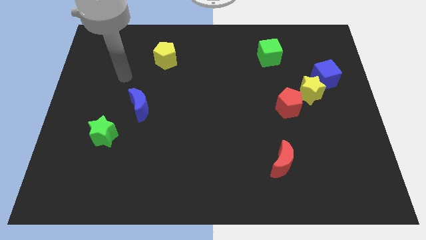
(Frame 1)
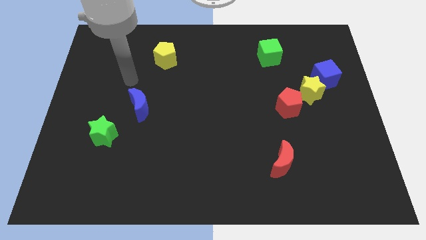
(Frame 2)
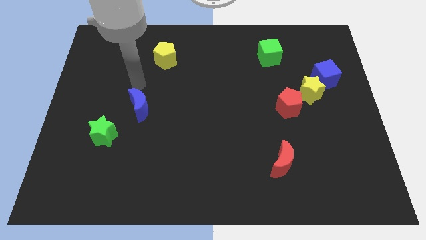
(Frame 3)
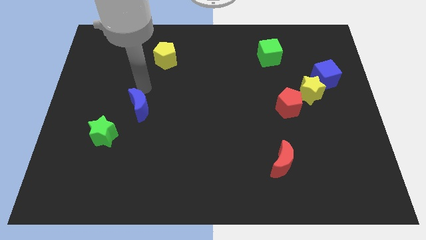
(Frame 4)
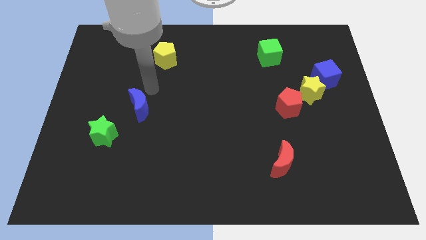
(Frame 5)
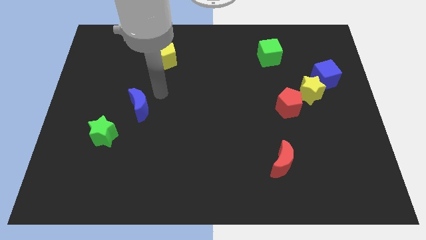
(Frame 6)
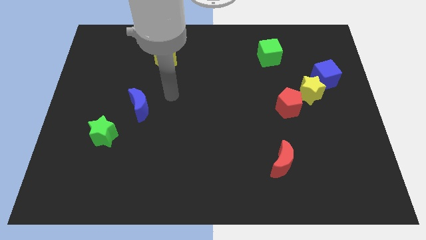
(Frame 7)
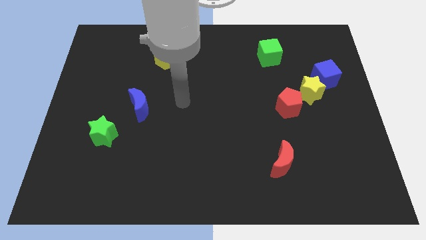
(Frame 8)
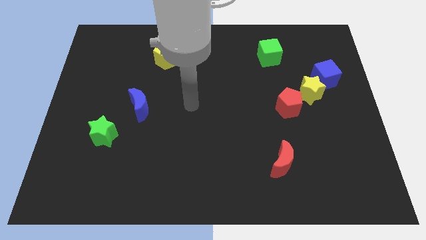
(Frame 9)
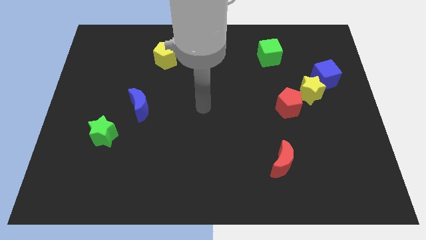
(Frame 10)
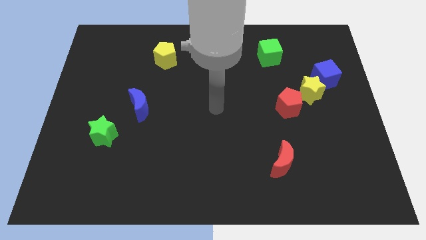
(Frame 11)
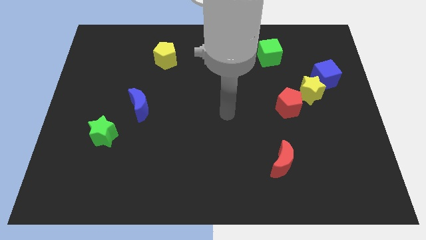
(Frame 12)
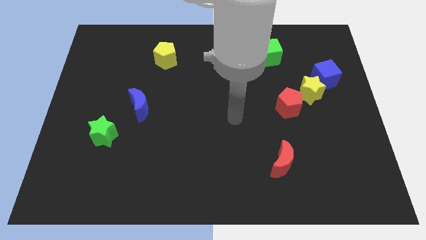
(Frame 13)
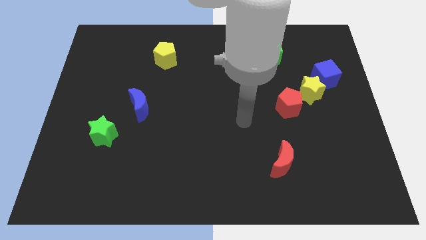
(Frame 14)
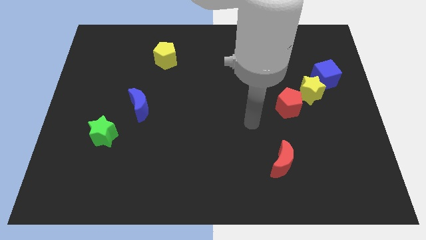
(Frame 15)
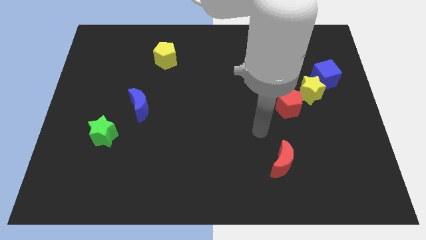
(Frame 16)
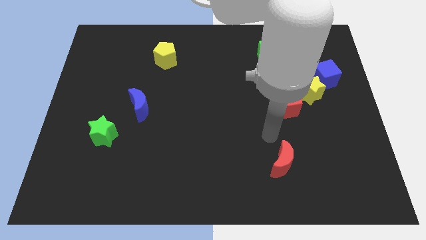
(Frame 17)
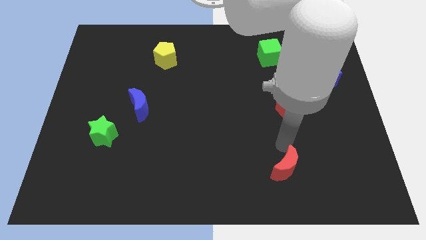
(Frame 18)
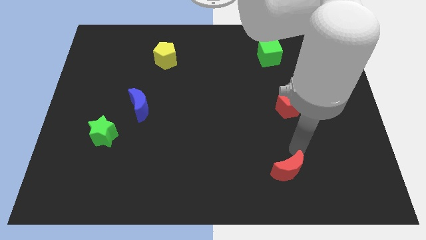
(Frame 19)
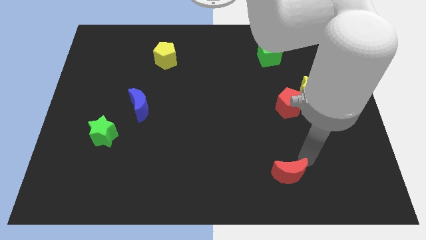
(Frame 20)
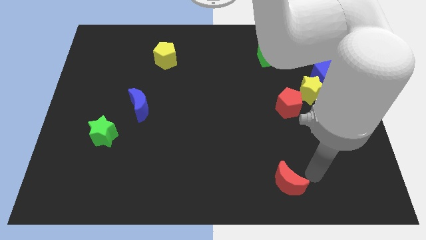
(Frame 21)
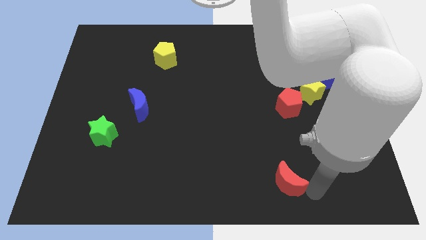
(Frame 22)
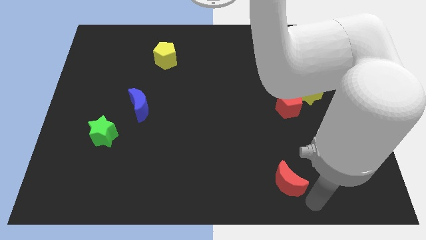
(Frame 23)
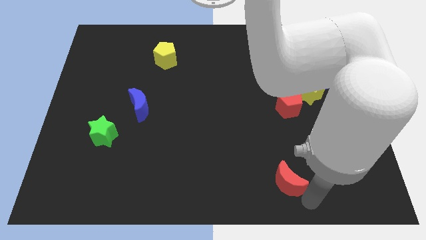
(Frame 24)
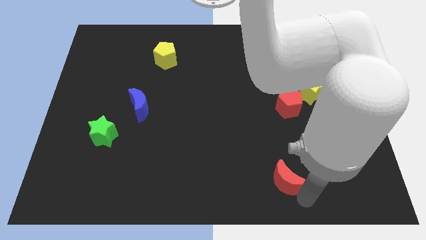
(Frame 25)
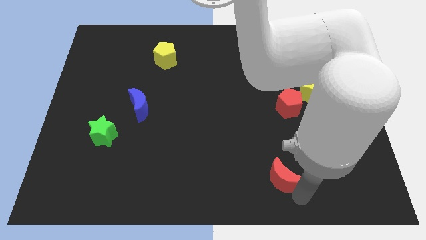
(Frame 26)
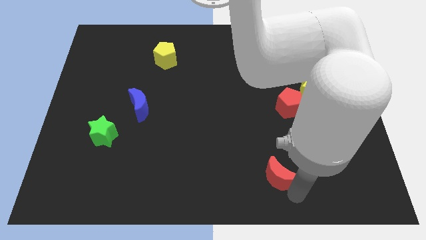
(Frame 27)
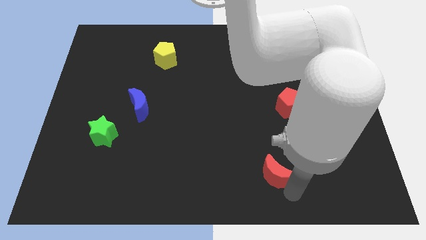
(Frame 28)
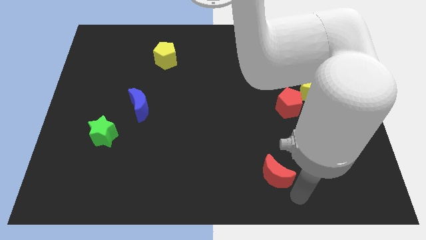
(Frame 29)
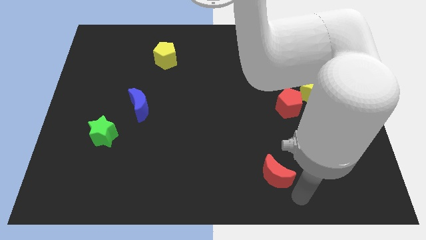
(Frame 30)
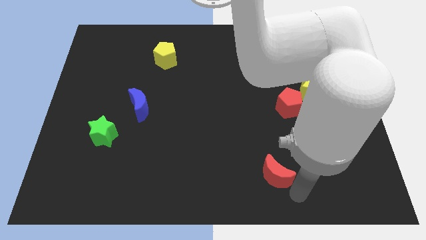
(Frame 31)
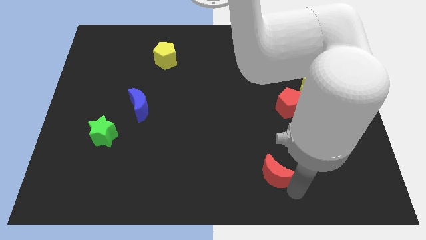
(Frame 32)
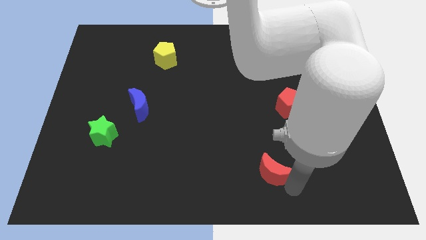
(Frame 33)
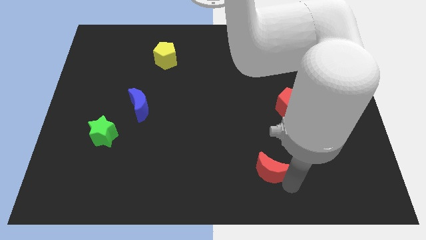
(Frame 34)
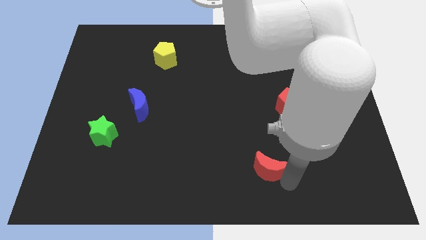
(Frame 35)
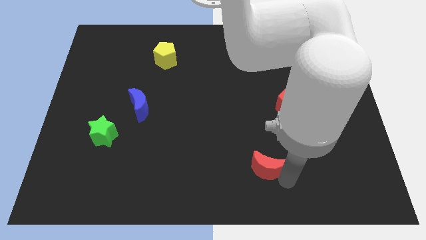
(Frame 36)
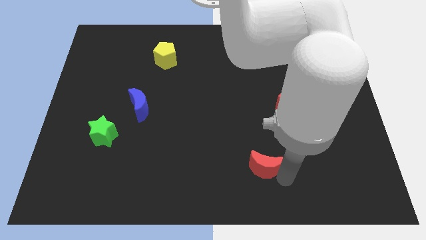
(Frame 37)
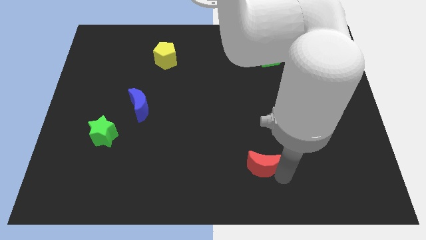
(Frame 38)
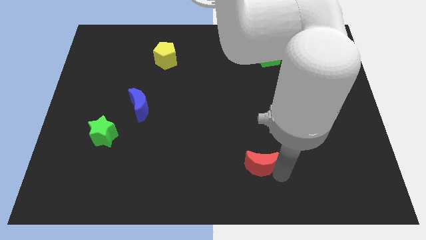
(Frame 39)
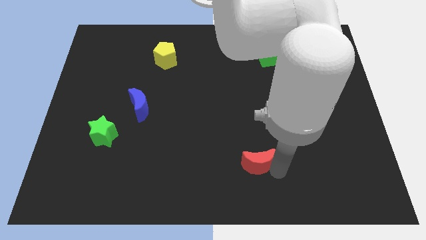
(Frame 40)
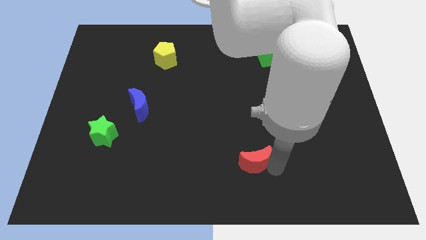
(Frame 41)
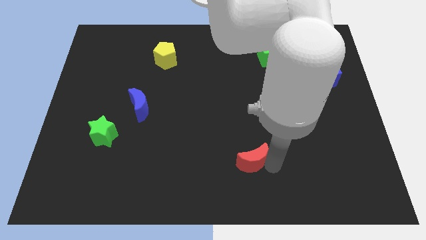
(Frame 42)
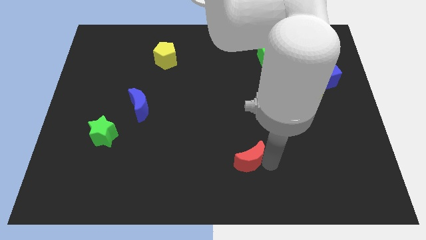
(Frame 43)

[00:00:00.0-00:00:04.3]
slightly move the red moon left

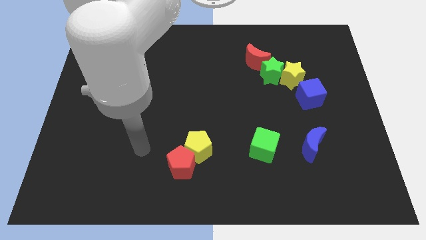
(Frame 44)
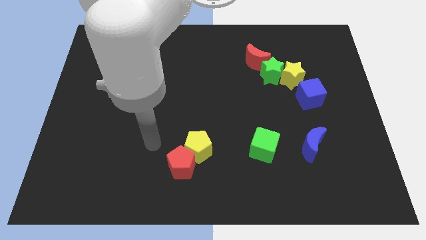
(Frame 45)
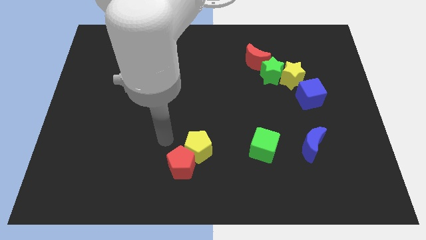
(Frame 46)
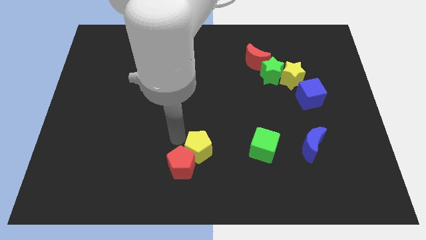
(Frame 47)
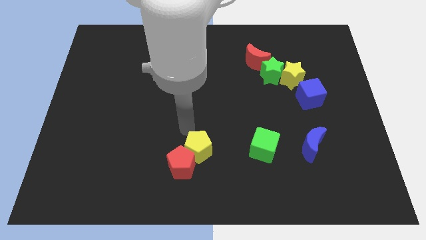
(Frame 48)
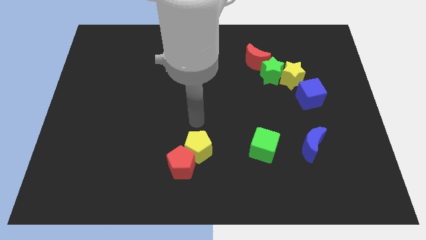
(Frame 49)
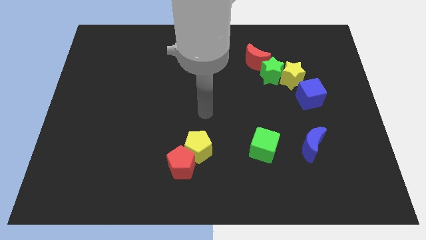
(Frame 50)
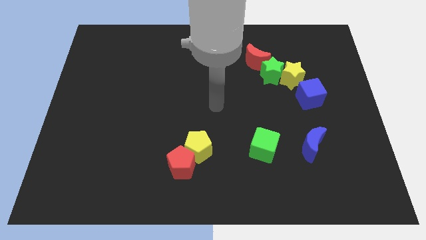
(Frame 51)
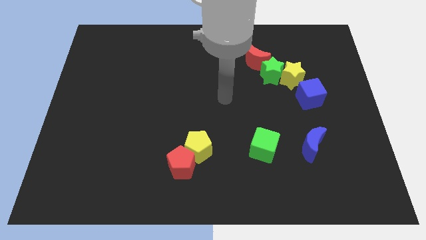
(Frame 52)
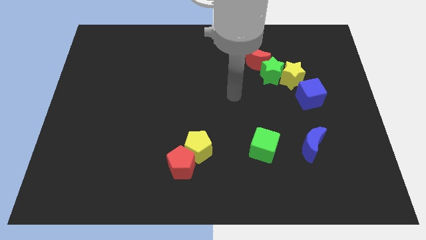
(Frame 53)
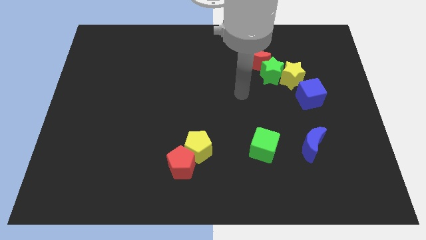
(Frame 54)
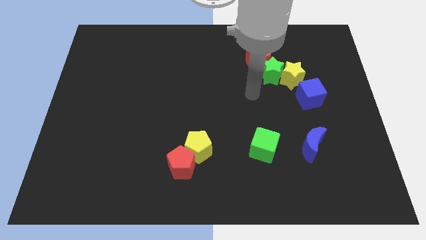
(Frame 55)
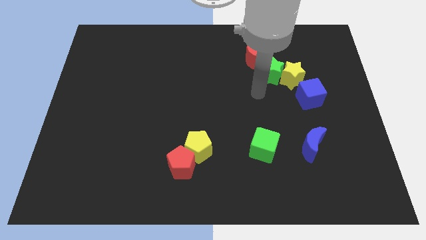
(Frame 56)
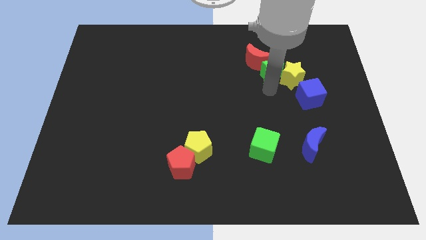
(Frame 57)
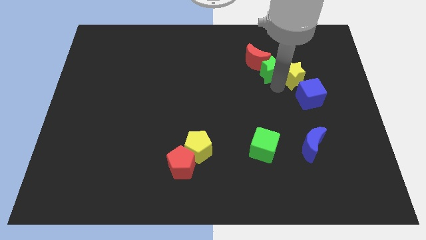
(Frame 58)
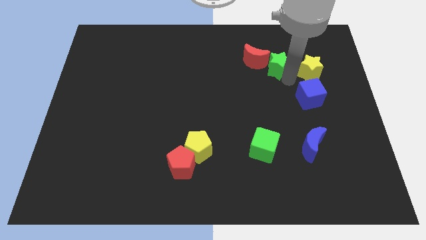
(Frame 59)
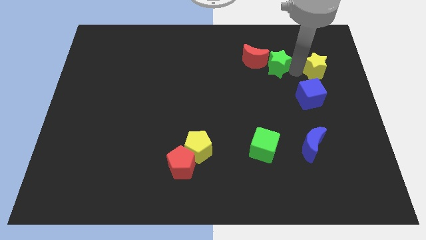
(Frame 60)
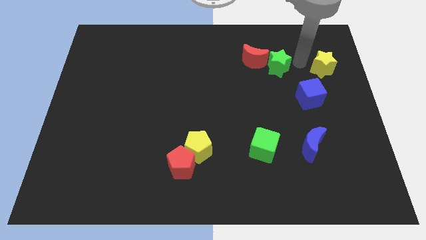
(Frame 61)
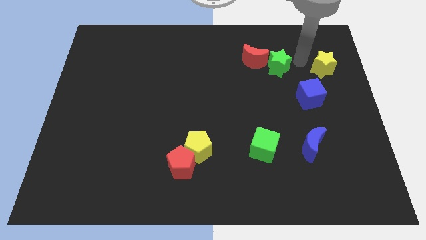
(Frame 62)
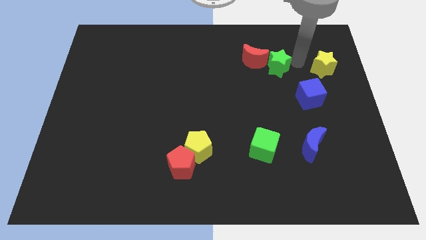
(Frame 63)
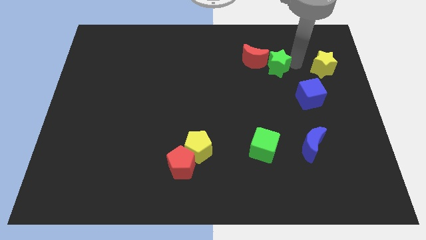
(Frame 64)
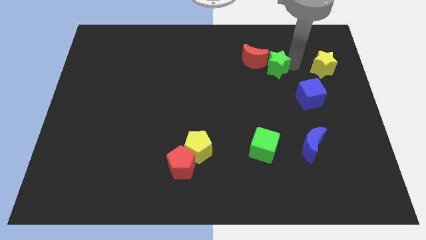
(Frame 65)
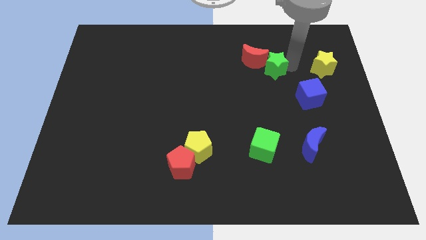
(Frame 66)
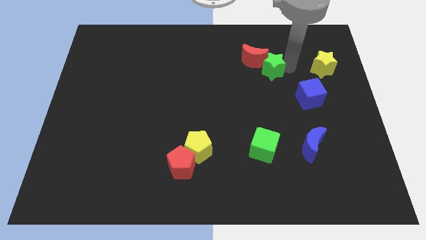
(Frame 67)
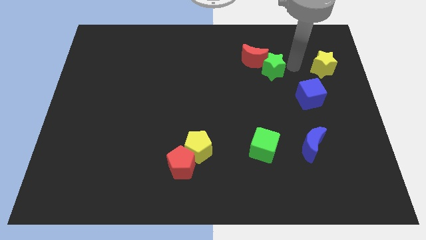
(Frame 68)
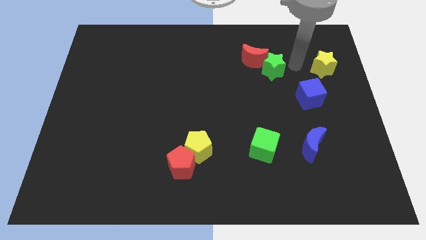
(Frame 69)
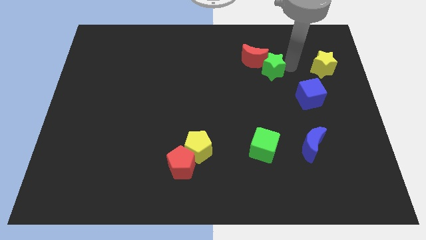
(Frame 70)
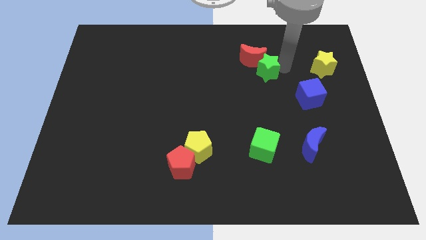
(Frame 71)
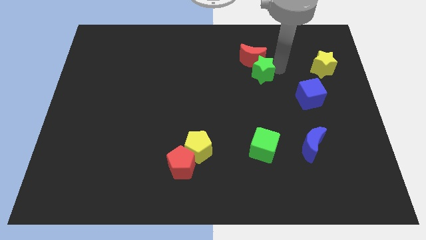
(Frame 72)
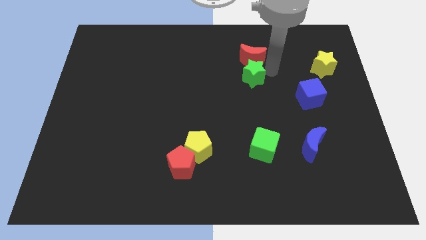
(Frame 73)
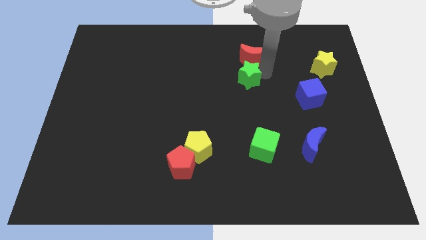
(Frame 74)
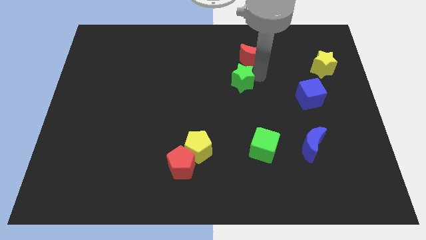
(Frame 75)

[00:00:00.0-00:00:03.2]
slightly push the green star to the left

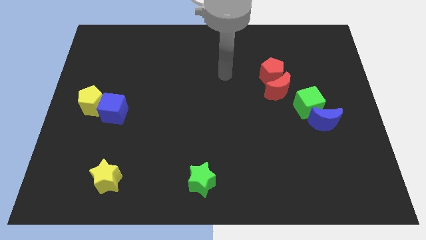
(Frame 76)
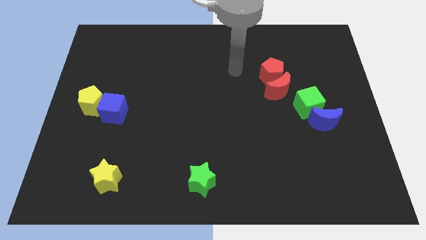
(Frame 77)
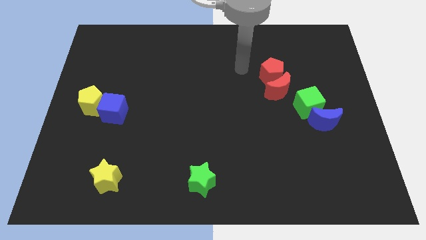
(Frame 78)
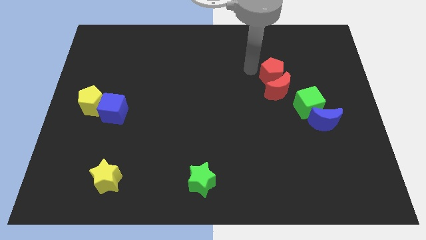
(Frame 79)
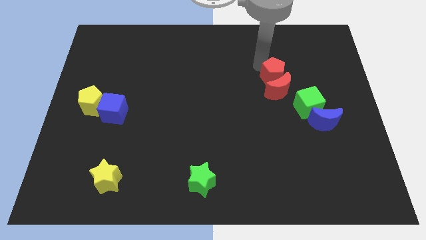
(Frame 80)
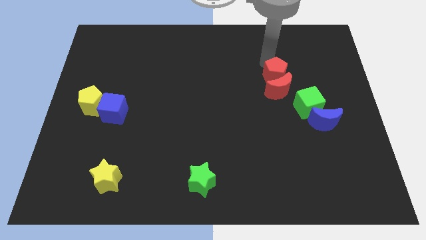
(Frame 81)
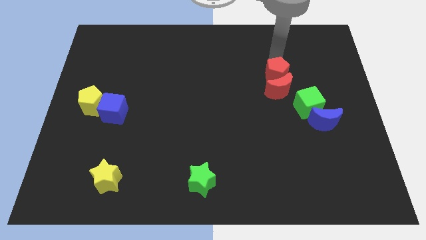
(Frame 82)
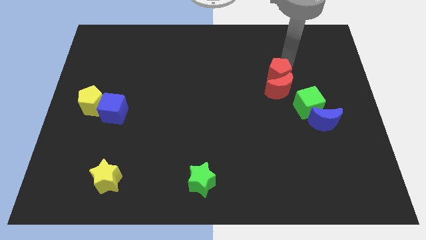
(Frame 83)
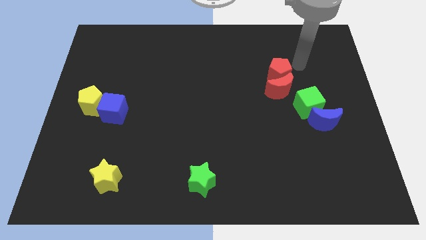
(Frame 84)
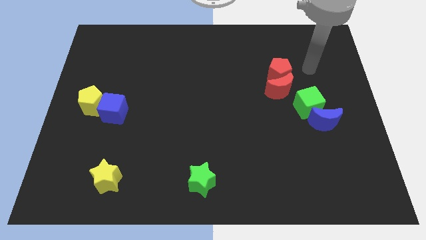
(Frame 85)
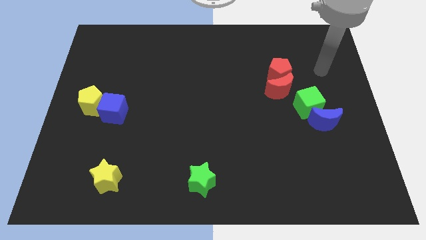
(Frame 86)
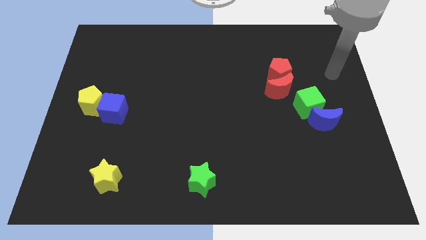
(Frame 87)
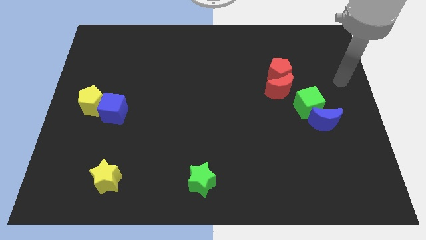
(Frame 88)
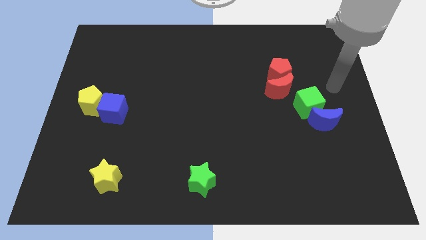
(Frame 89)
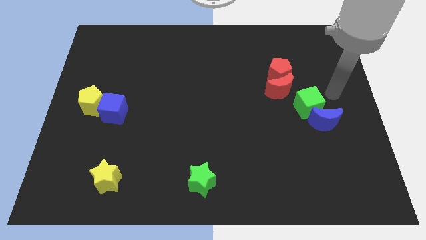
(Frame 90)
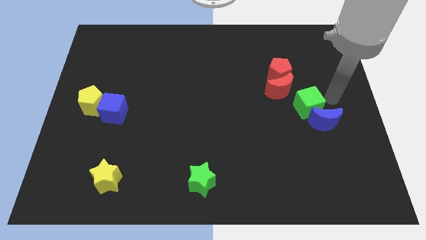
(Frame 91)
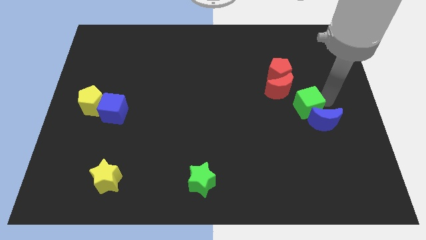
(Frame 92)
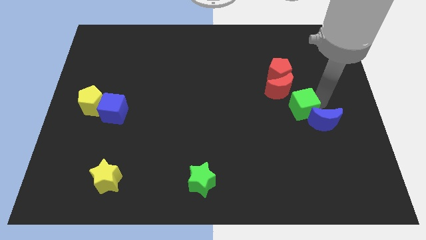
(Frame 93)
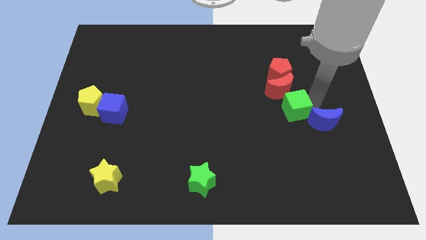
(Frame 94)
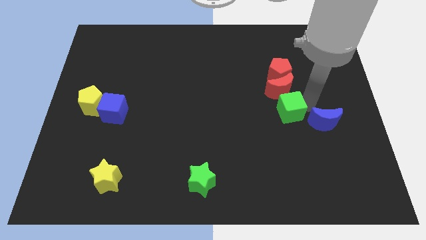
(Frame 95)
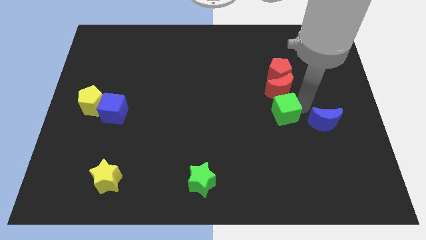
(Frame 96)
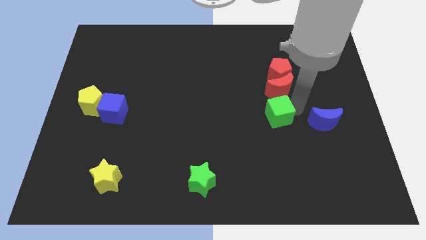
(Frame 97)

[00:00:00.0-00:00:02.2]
slide the green cube left a little bit
